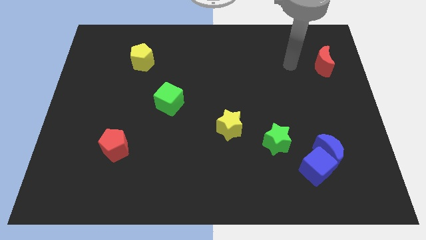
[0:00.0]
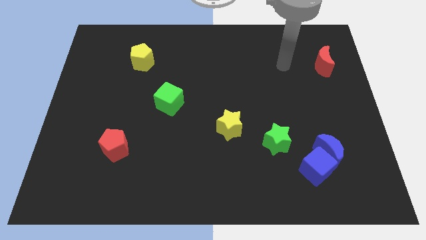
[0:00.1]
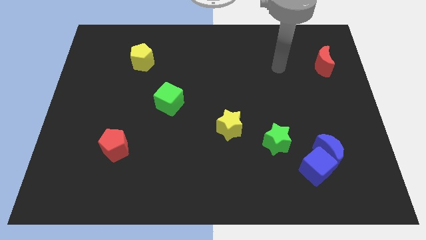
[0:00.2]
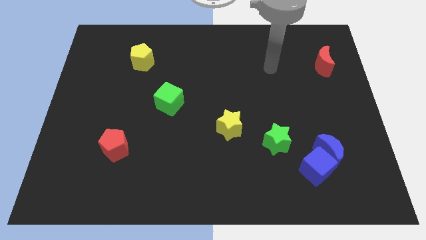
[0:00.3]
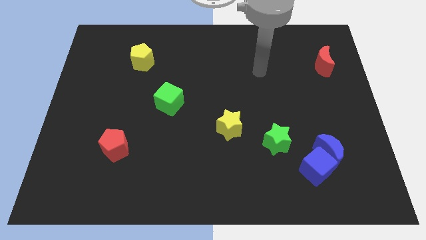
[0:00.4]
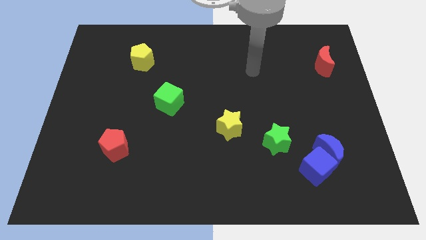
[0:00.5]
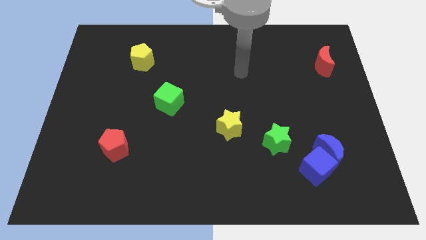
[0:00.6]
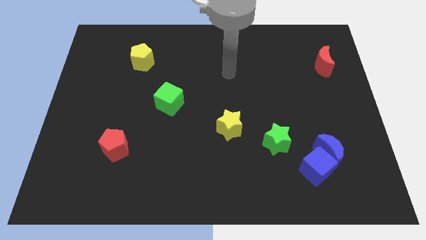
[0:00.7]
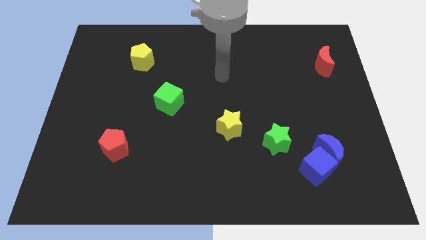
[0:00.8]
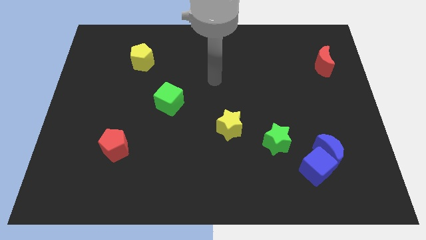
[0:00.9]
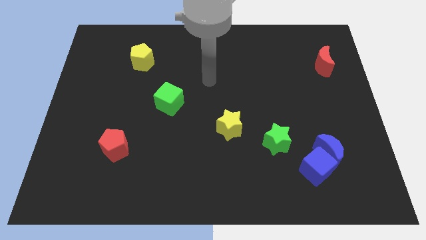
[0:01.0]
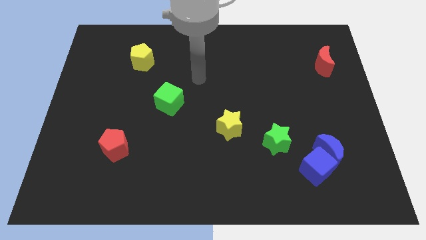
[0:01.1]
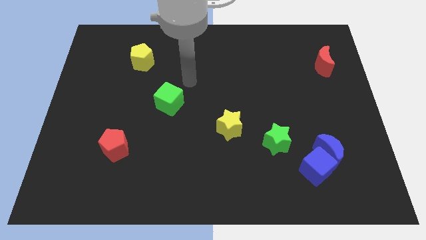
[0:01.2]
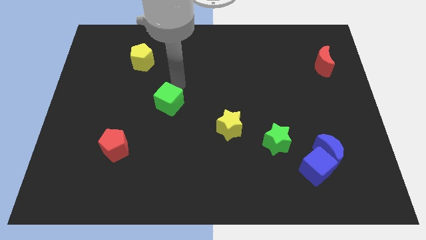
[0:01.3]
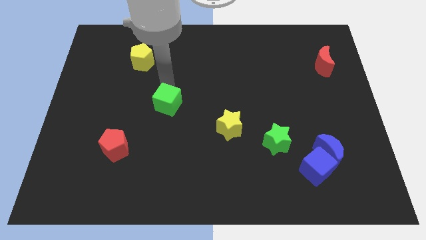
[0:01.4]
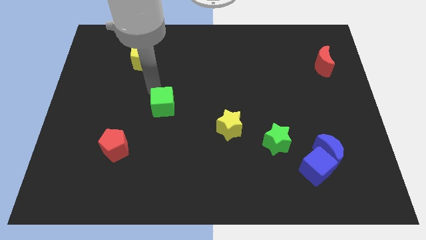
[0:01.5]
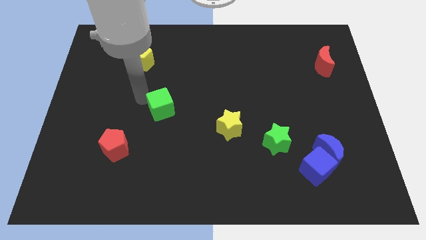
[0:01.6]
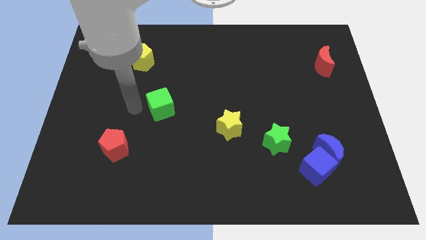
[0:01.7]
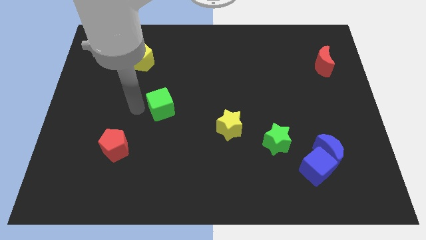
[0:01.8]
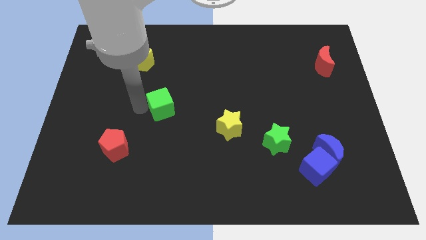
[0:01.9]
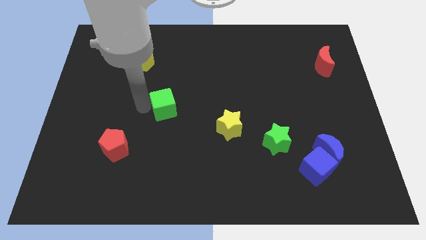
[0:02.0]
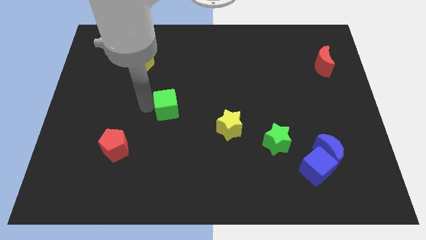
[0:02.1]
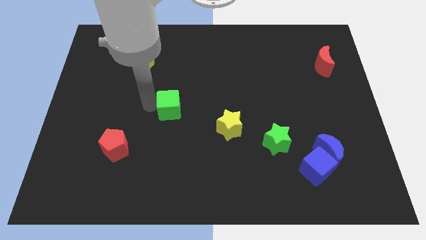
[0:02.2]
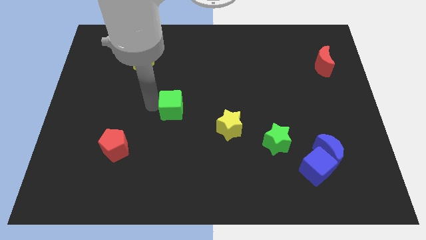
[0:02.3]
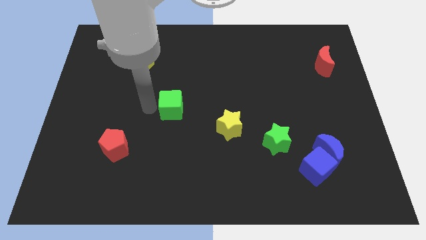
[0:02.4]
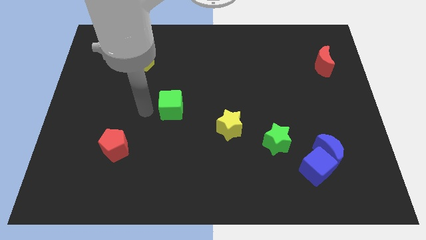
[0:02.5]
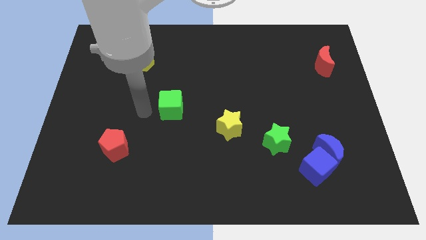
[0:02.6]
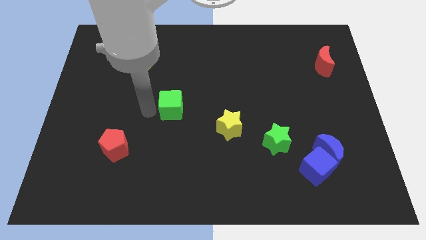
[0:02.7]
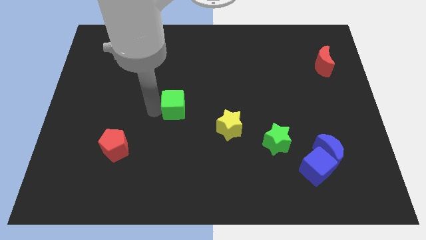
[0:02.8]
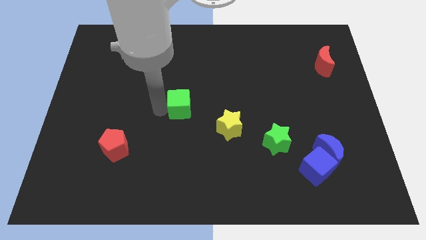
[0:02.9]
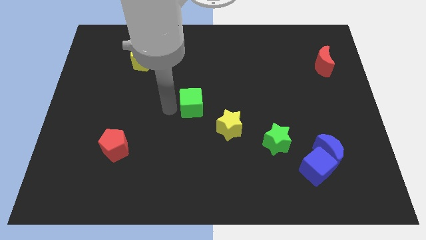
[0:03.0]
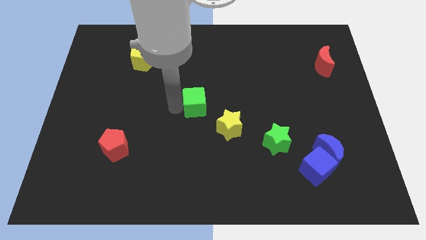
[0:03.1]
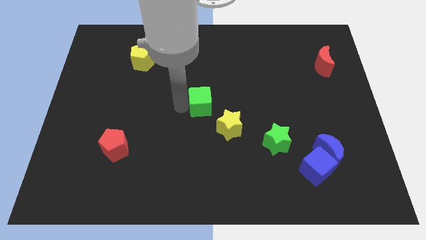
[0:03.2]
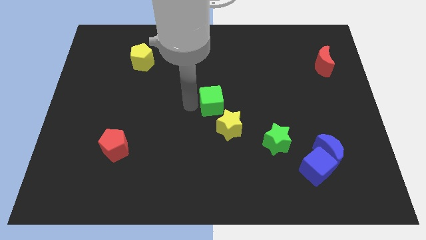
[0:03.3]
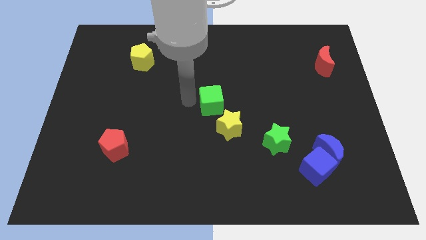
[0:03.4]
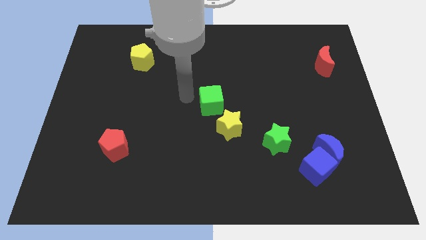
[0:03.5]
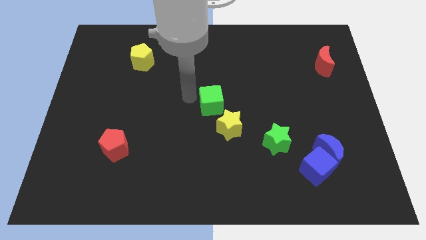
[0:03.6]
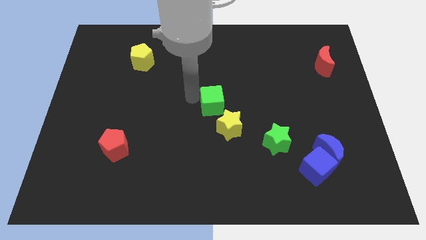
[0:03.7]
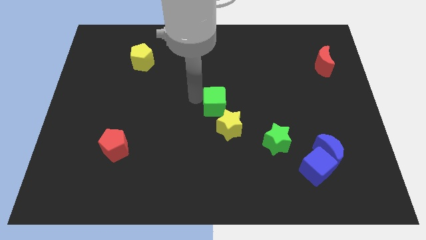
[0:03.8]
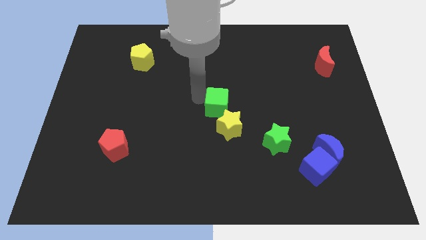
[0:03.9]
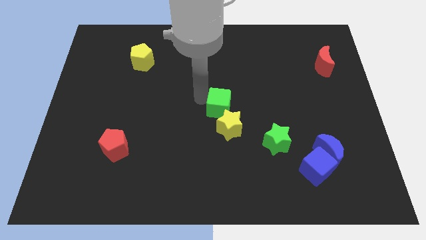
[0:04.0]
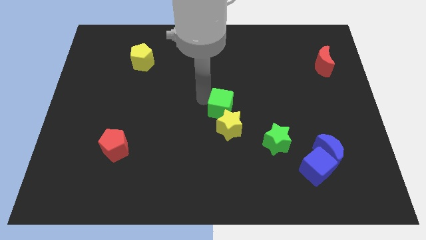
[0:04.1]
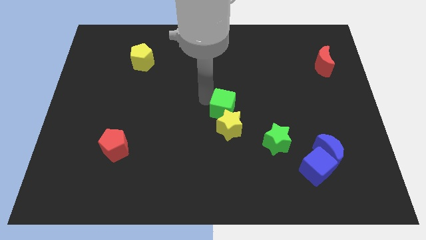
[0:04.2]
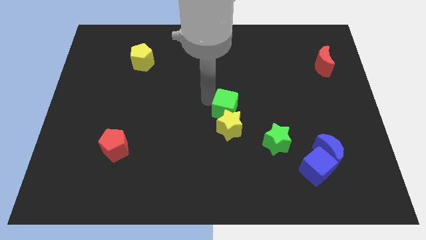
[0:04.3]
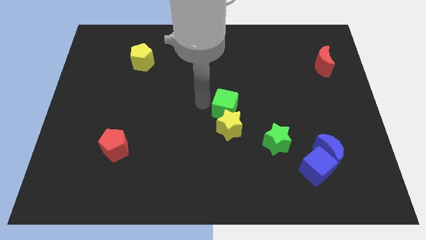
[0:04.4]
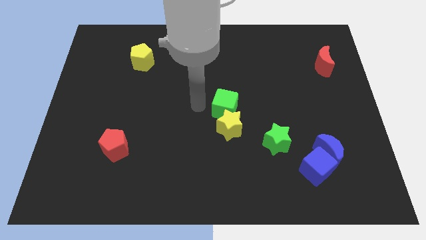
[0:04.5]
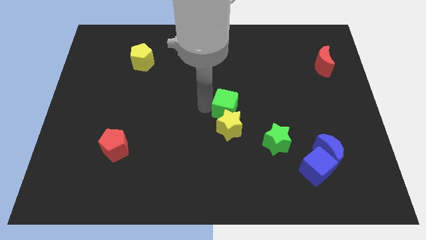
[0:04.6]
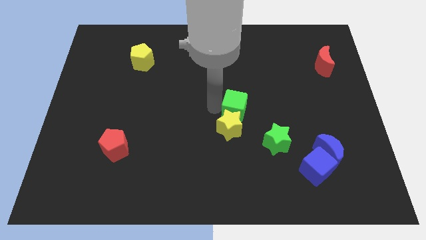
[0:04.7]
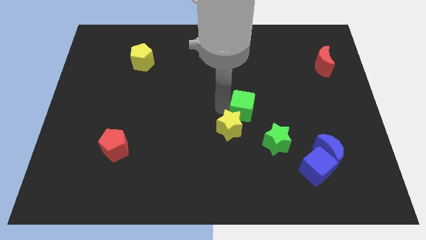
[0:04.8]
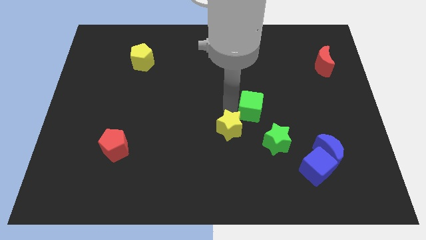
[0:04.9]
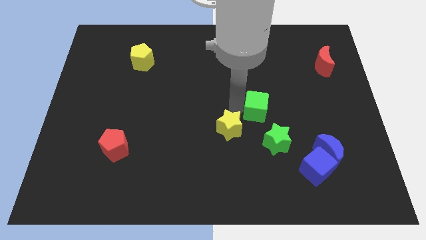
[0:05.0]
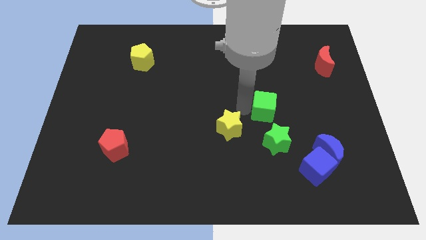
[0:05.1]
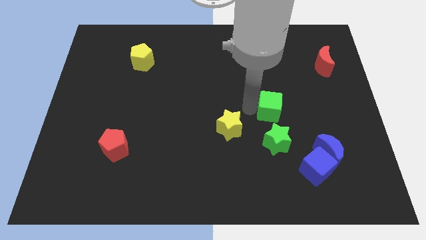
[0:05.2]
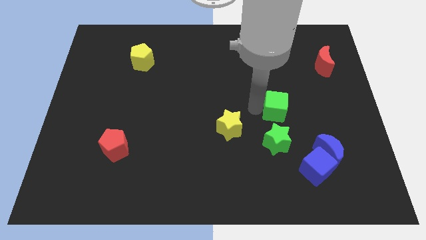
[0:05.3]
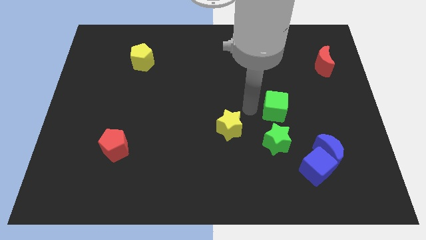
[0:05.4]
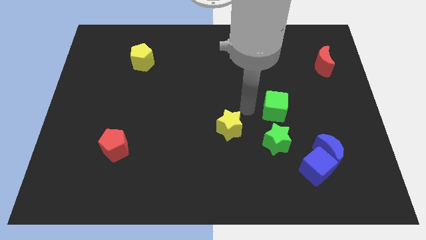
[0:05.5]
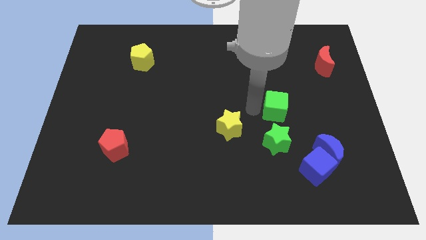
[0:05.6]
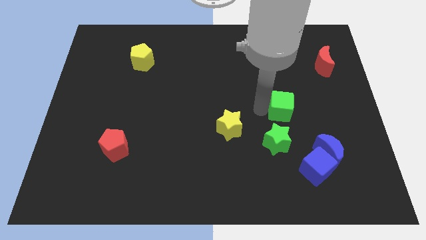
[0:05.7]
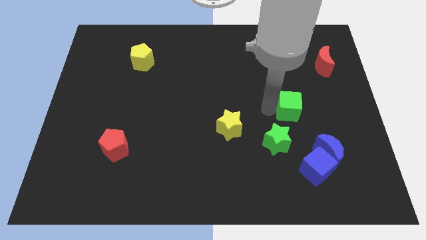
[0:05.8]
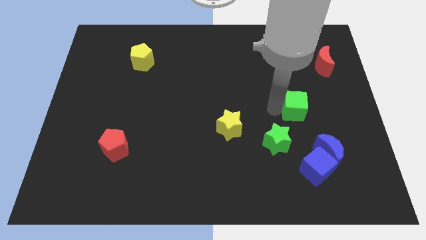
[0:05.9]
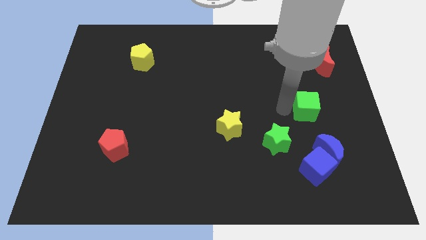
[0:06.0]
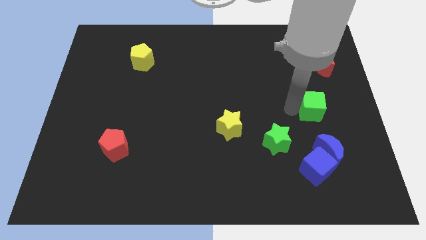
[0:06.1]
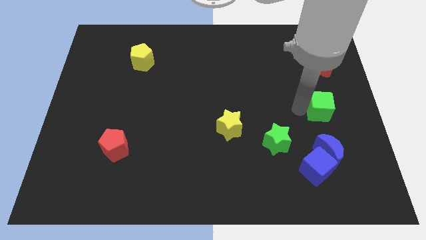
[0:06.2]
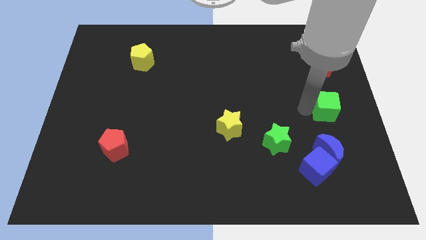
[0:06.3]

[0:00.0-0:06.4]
put the green cube to the right side

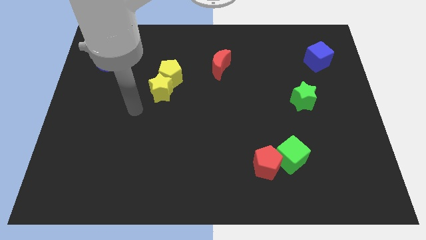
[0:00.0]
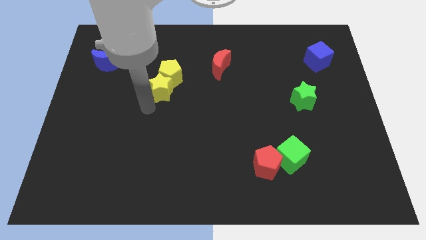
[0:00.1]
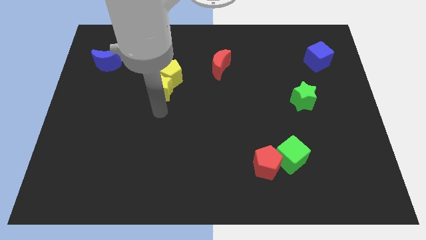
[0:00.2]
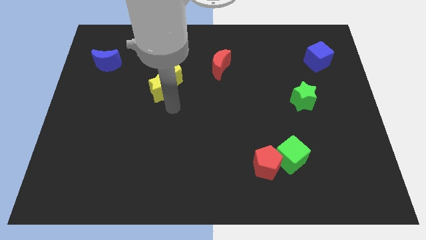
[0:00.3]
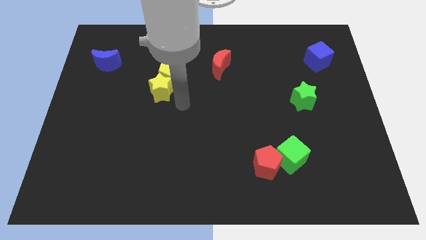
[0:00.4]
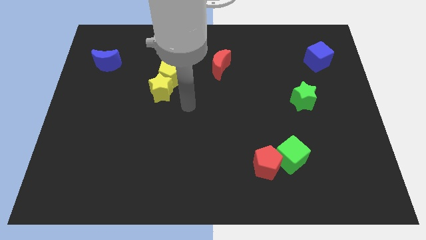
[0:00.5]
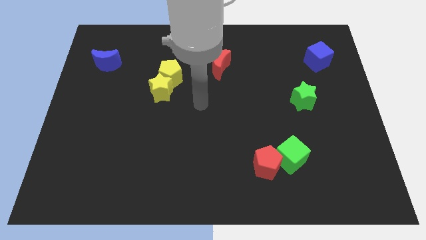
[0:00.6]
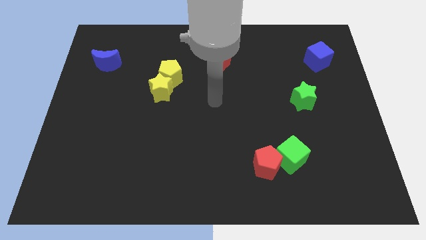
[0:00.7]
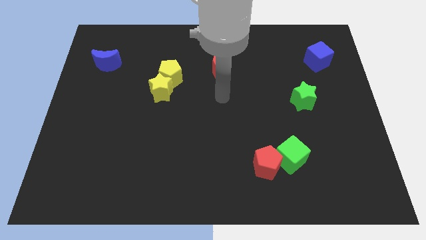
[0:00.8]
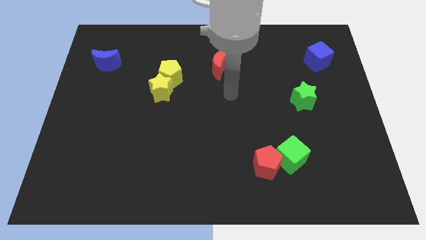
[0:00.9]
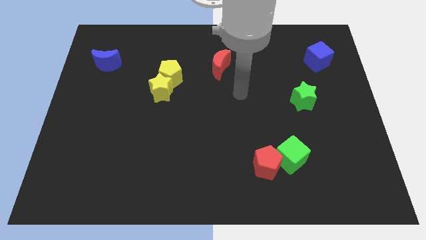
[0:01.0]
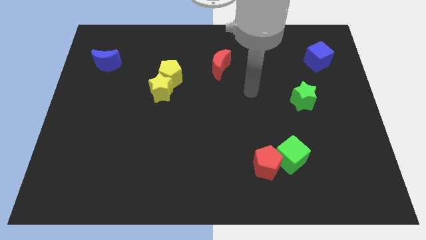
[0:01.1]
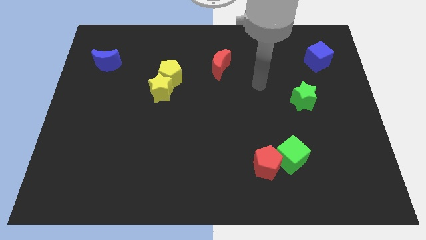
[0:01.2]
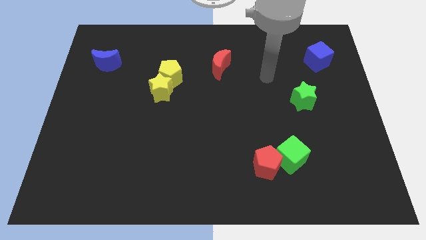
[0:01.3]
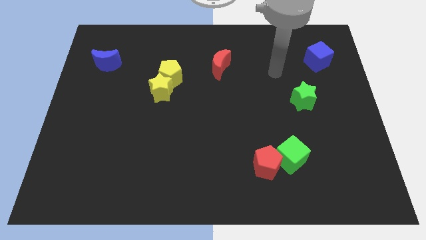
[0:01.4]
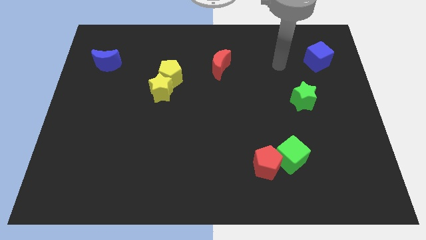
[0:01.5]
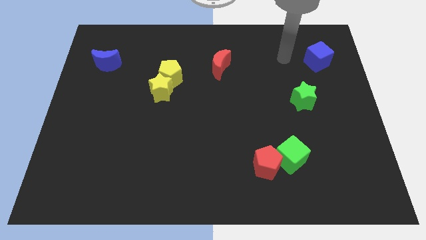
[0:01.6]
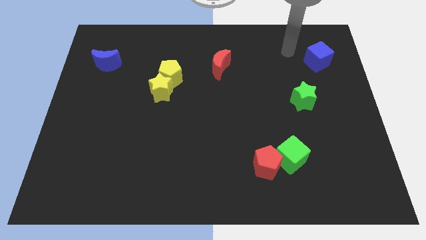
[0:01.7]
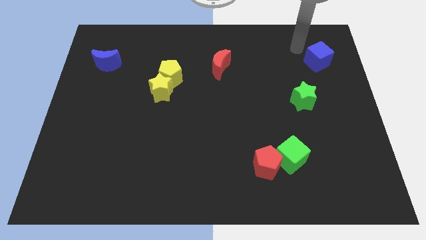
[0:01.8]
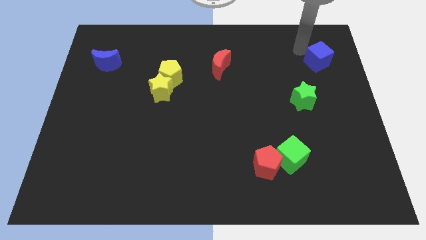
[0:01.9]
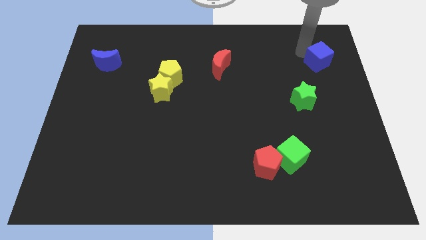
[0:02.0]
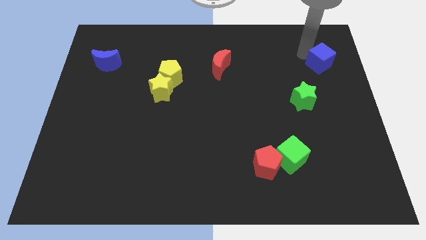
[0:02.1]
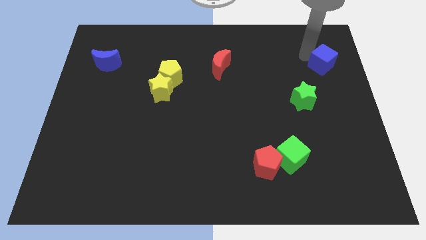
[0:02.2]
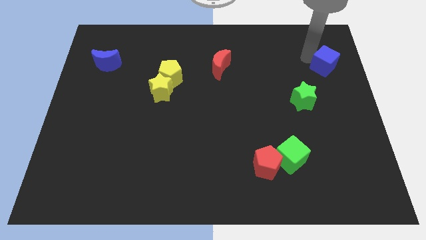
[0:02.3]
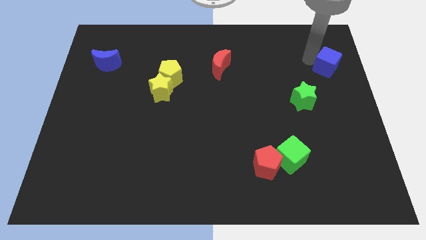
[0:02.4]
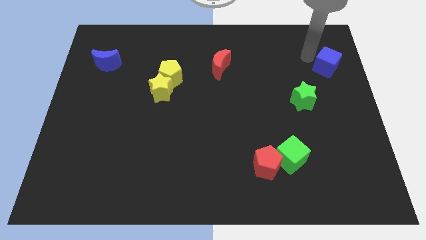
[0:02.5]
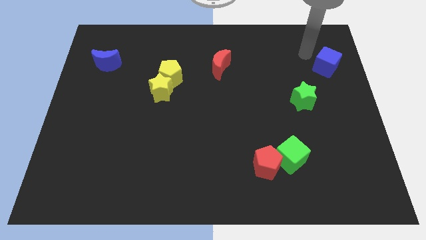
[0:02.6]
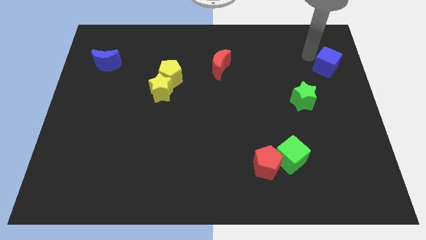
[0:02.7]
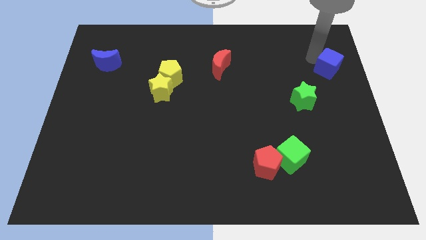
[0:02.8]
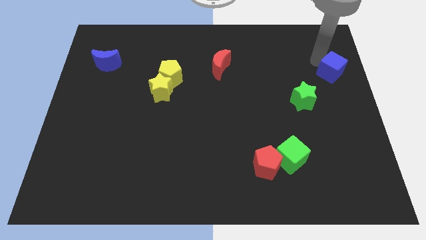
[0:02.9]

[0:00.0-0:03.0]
put the blue cube to the right side
